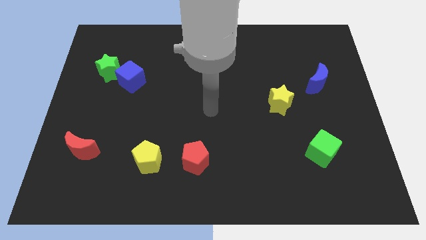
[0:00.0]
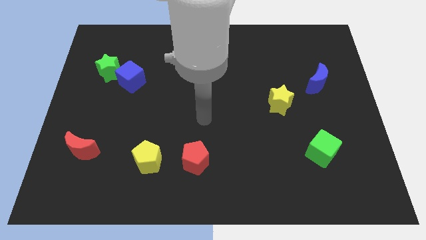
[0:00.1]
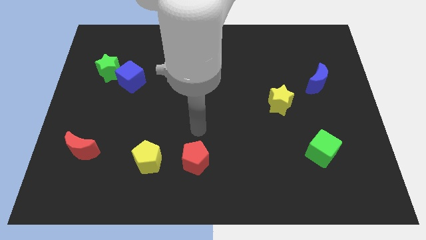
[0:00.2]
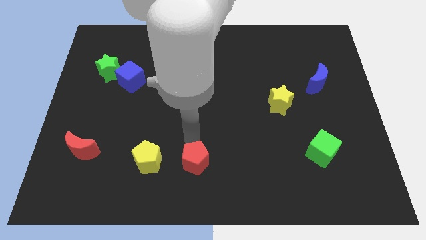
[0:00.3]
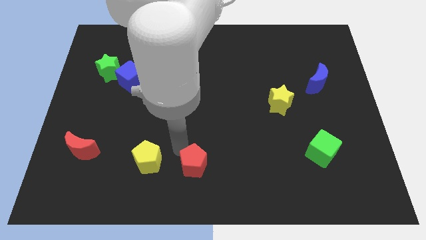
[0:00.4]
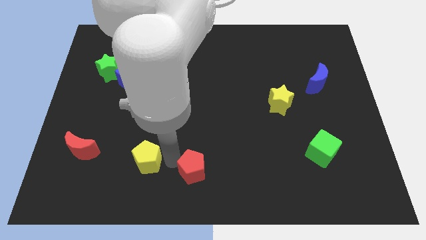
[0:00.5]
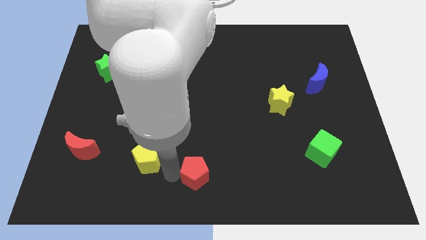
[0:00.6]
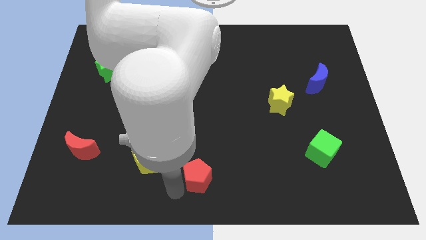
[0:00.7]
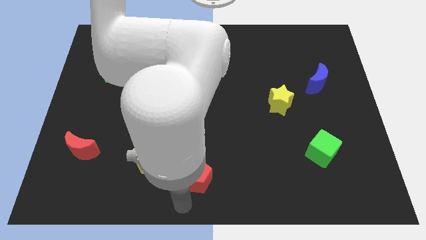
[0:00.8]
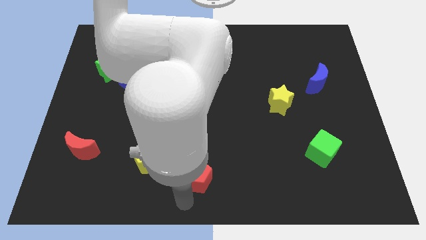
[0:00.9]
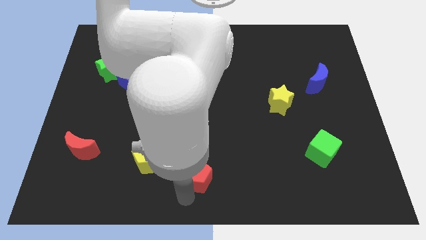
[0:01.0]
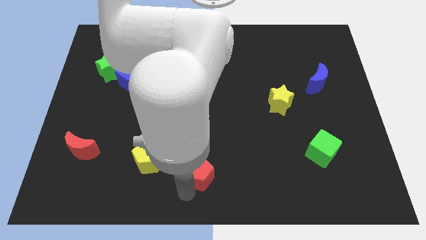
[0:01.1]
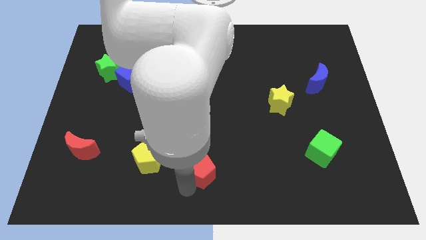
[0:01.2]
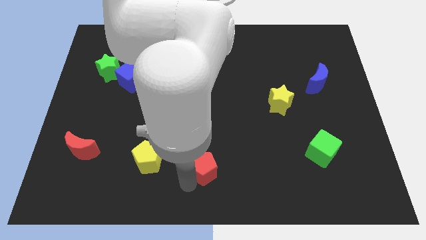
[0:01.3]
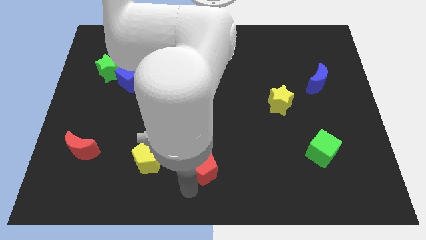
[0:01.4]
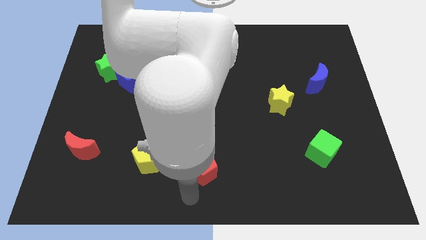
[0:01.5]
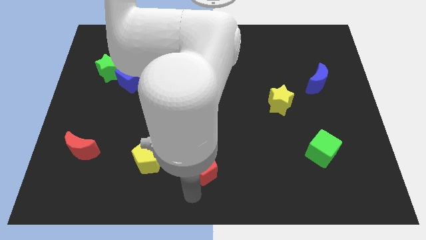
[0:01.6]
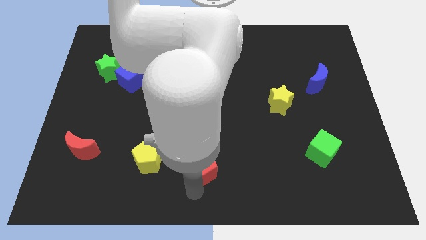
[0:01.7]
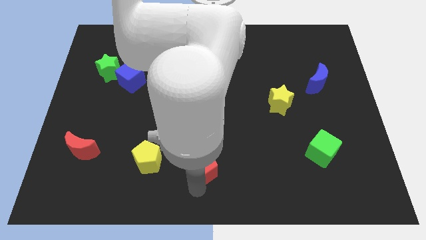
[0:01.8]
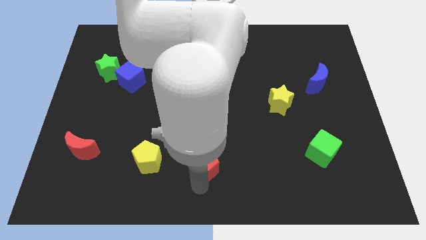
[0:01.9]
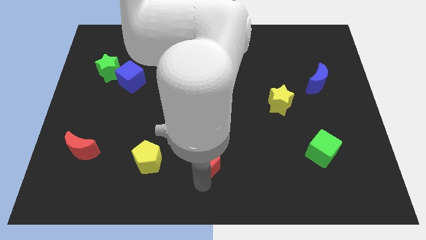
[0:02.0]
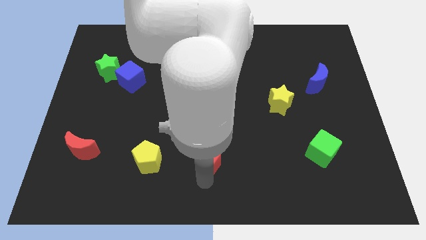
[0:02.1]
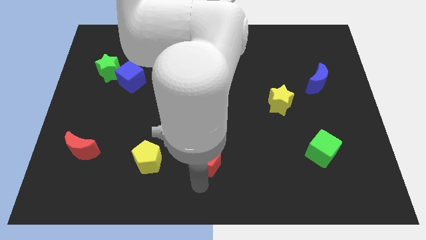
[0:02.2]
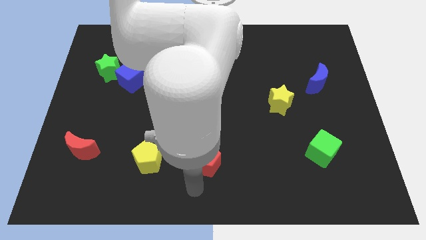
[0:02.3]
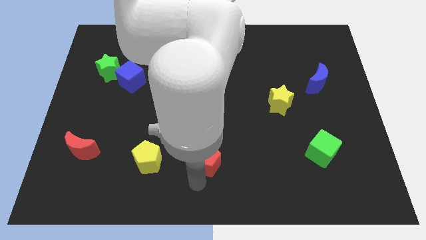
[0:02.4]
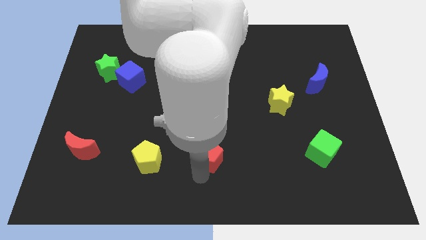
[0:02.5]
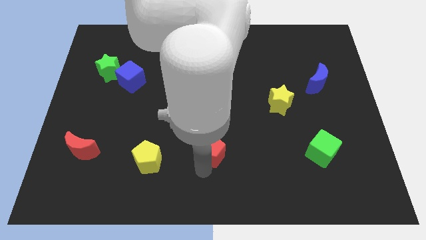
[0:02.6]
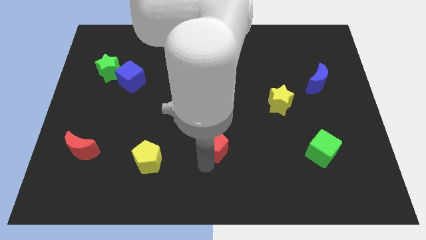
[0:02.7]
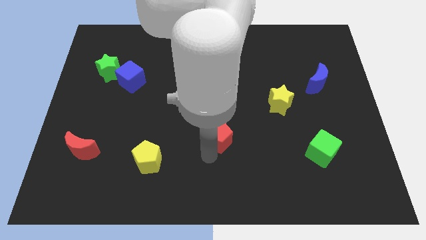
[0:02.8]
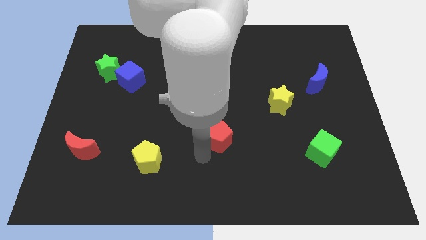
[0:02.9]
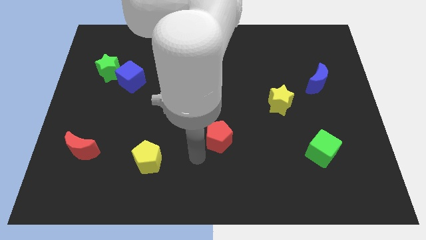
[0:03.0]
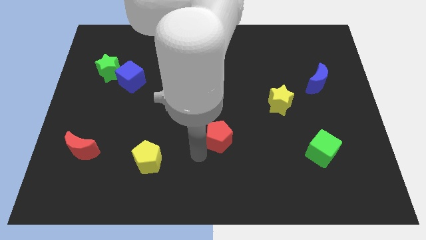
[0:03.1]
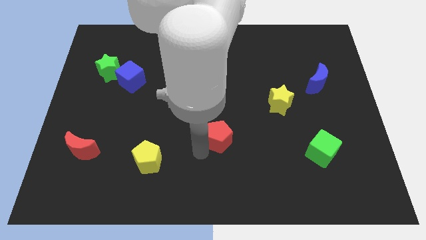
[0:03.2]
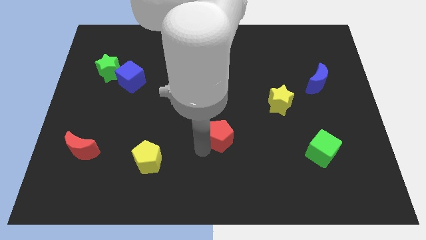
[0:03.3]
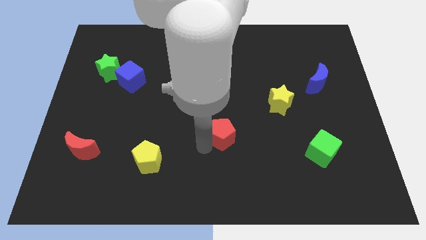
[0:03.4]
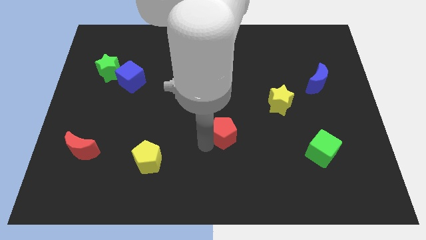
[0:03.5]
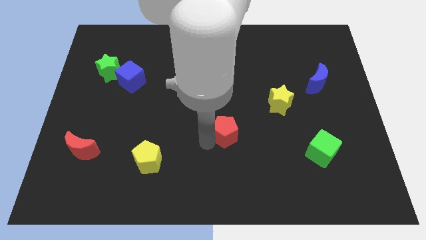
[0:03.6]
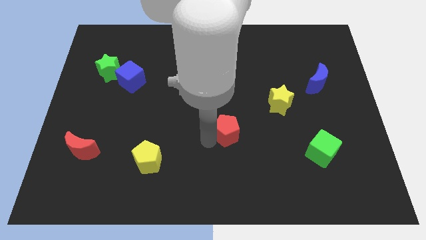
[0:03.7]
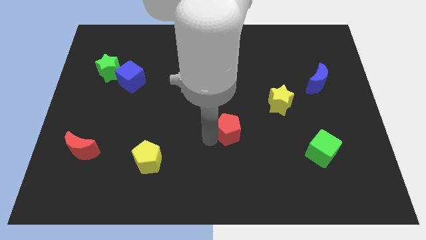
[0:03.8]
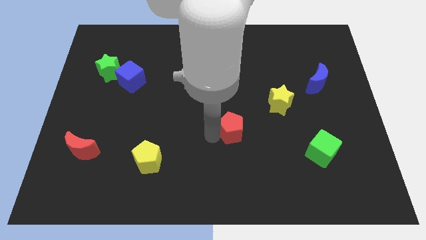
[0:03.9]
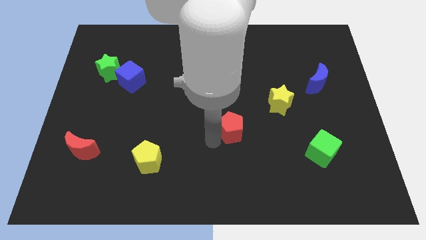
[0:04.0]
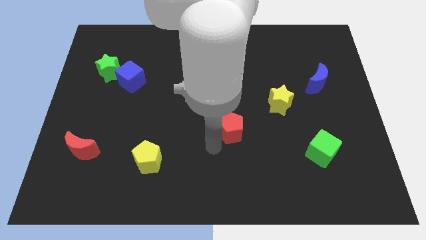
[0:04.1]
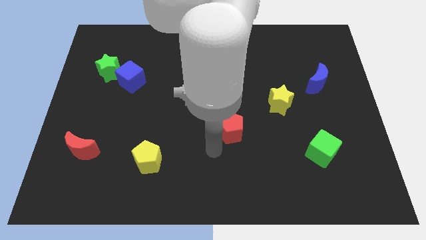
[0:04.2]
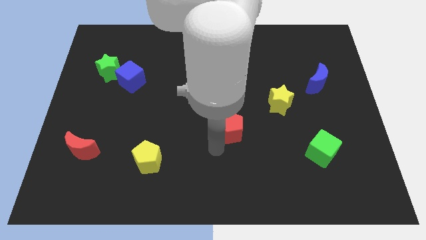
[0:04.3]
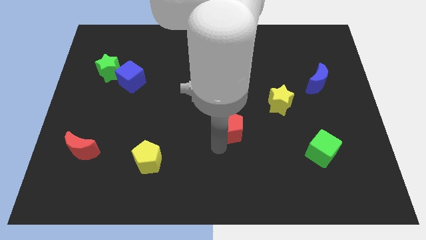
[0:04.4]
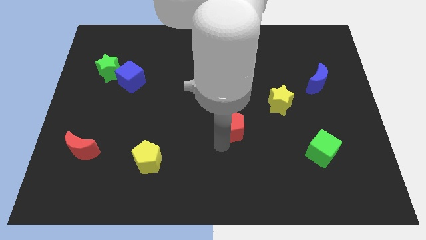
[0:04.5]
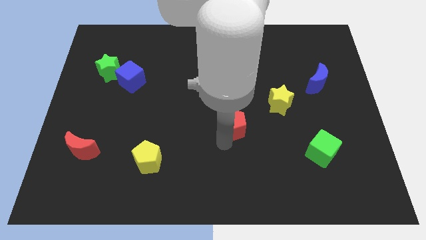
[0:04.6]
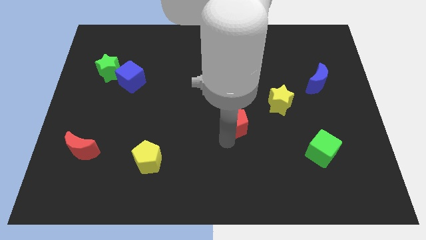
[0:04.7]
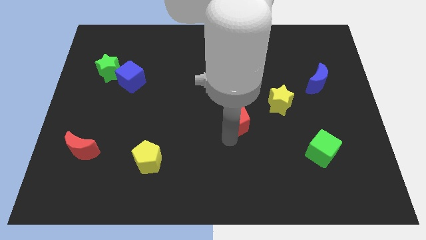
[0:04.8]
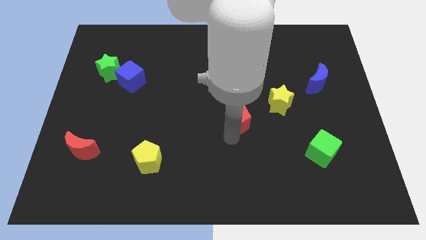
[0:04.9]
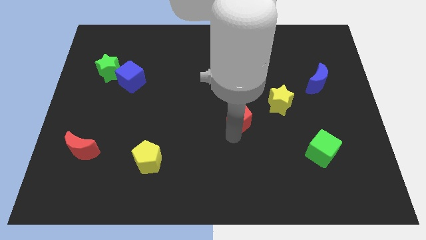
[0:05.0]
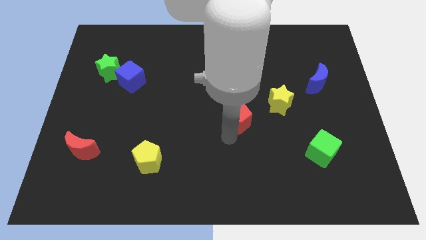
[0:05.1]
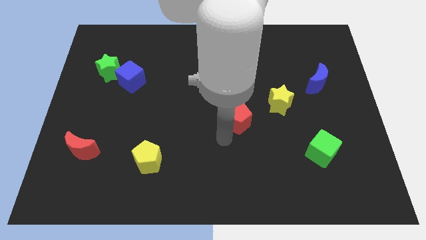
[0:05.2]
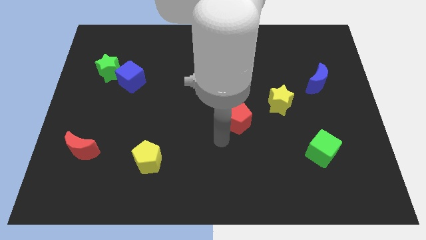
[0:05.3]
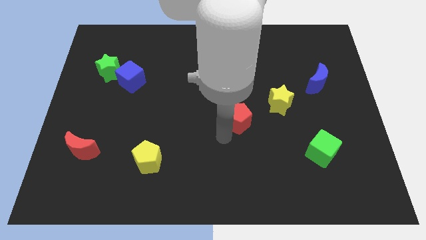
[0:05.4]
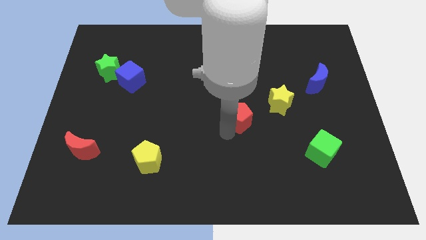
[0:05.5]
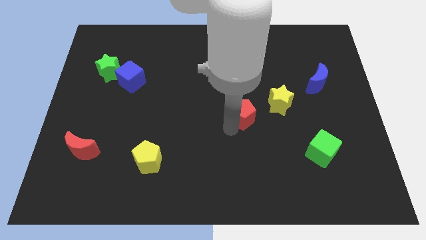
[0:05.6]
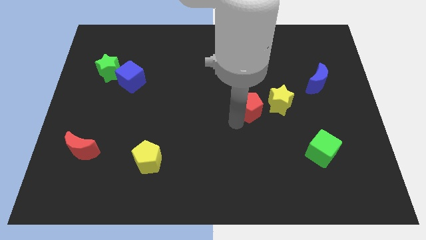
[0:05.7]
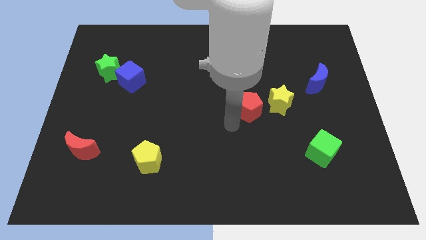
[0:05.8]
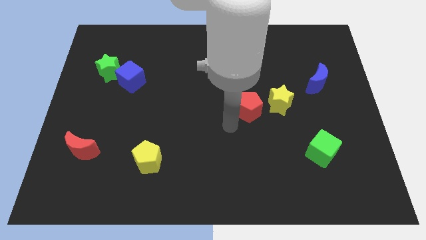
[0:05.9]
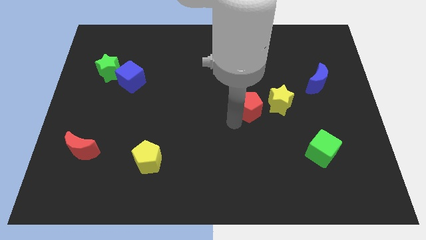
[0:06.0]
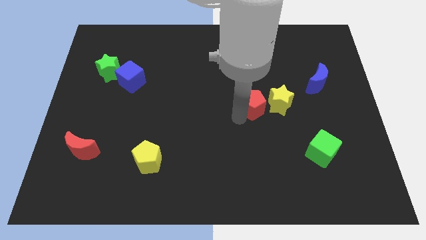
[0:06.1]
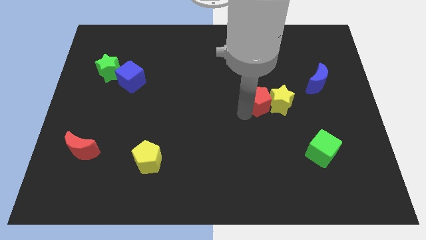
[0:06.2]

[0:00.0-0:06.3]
push the red pentagon upwards and then to the right

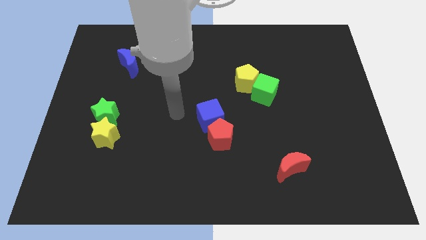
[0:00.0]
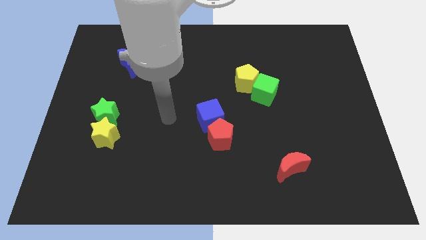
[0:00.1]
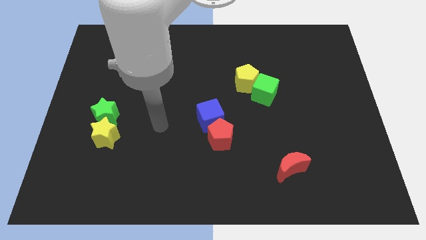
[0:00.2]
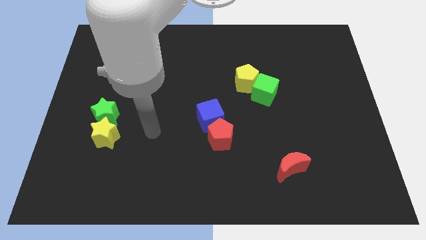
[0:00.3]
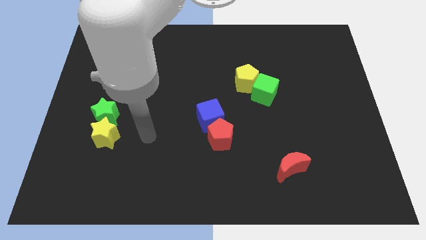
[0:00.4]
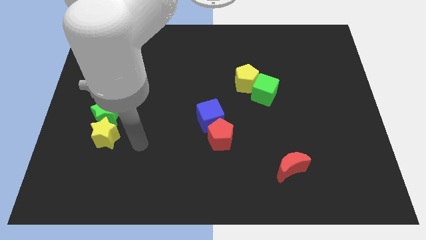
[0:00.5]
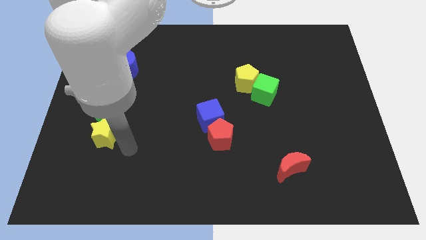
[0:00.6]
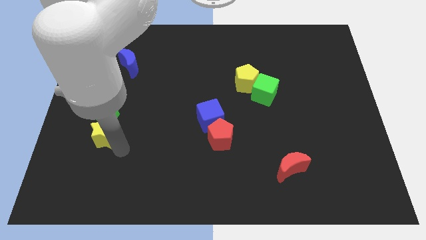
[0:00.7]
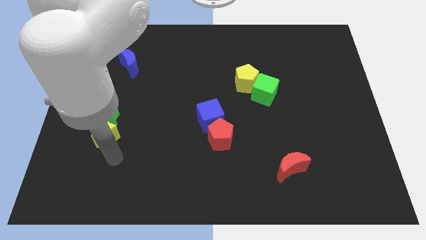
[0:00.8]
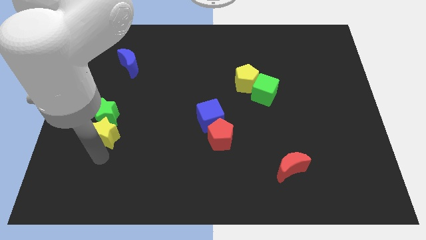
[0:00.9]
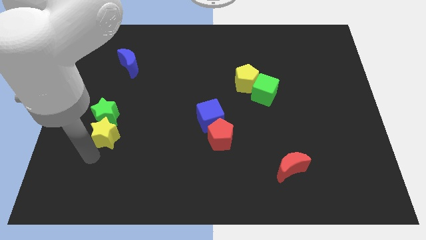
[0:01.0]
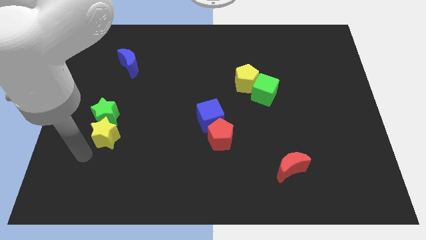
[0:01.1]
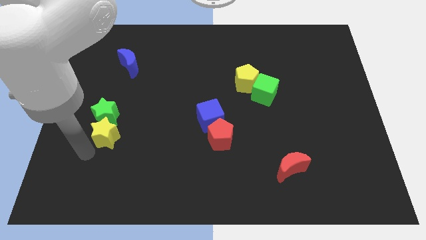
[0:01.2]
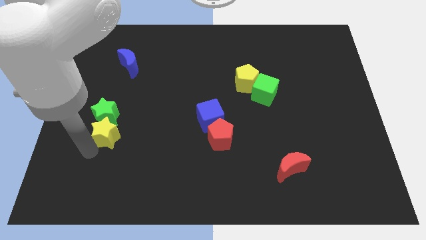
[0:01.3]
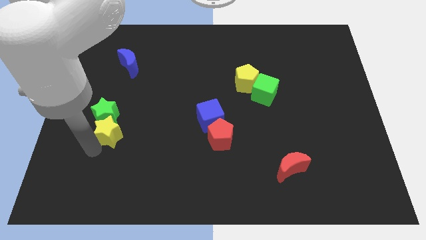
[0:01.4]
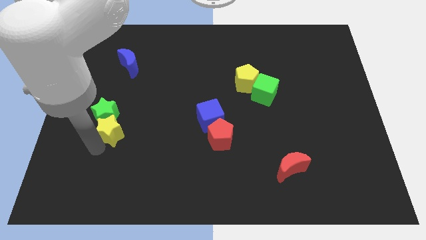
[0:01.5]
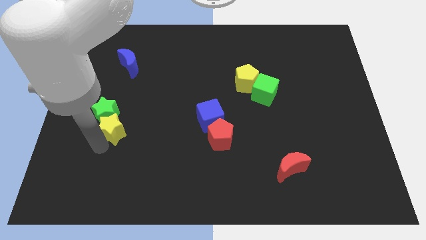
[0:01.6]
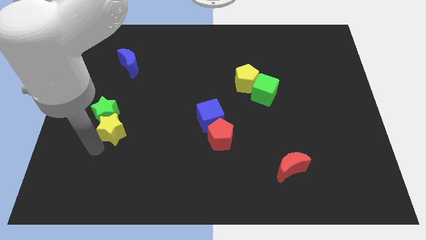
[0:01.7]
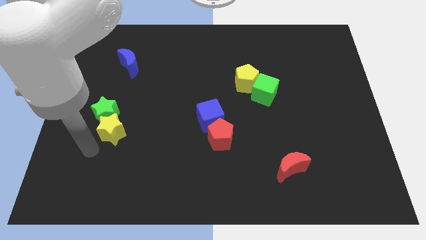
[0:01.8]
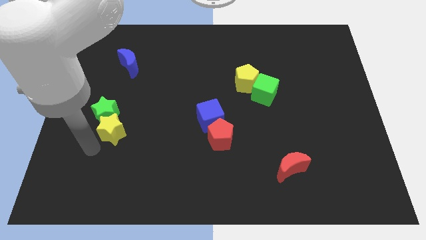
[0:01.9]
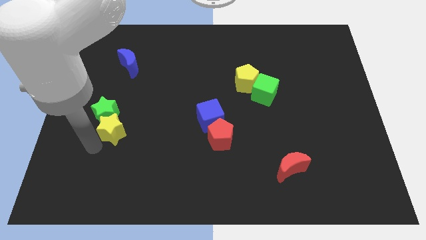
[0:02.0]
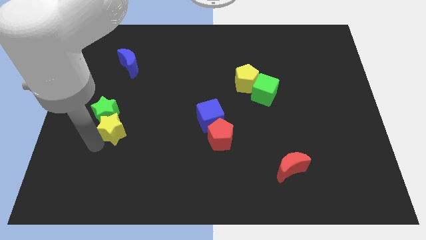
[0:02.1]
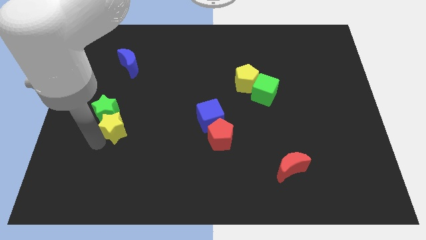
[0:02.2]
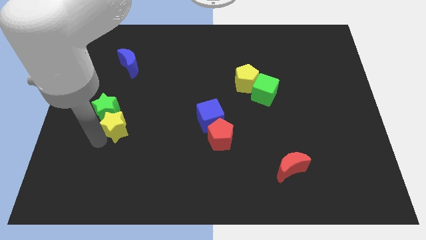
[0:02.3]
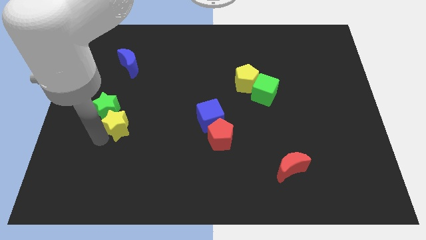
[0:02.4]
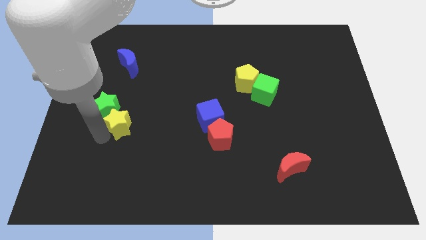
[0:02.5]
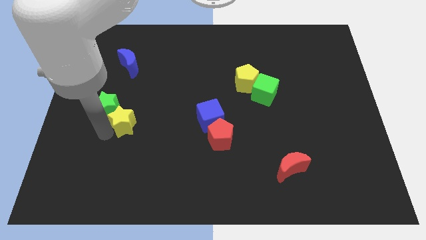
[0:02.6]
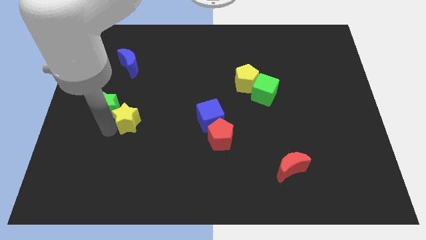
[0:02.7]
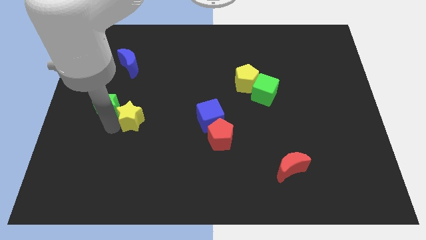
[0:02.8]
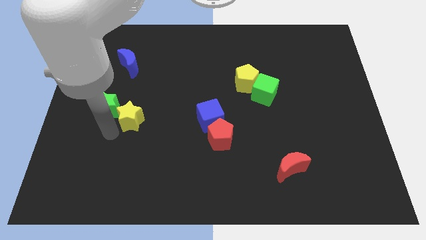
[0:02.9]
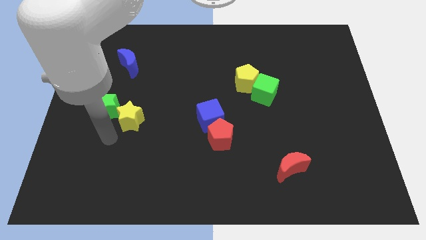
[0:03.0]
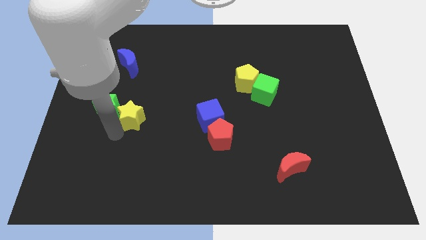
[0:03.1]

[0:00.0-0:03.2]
move the yellow star slightly upwards and right diagonally
